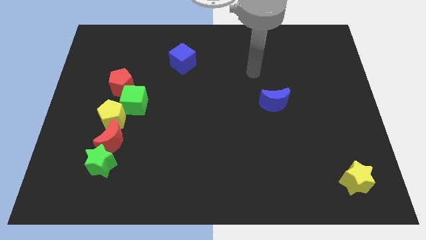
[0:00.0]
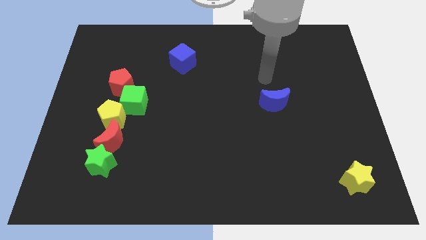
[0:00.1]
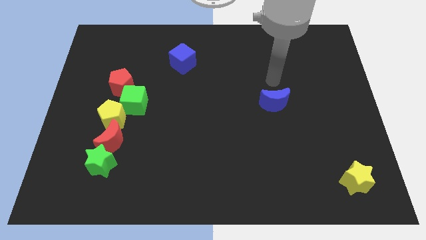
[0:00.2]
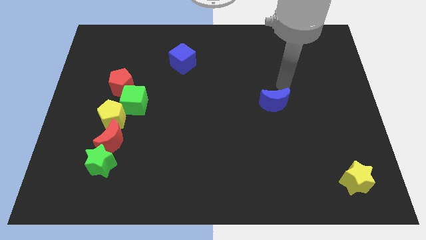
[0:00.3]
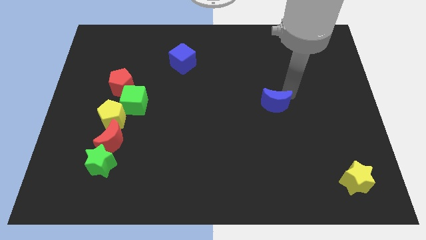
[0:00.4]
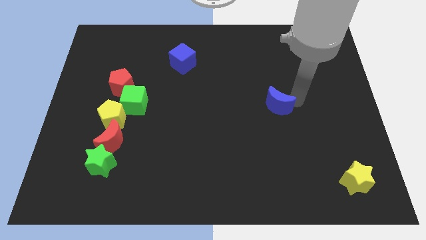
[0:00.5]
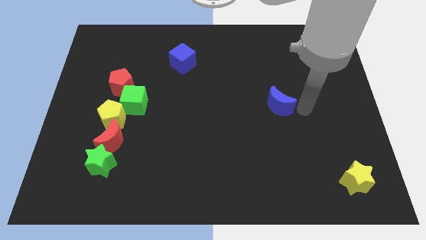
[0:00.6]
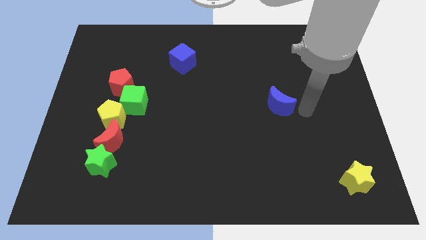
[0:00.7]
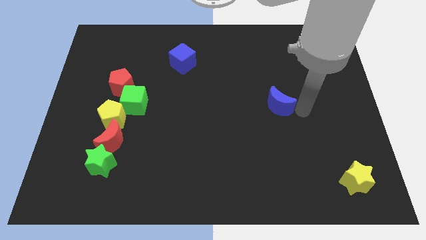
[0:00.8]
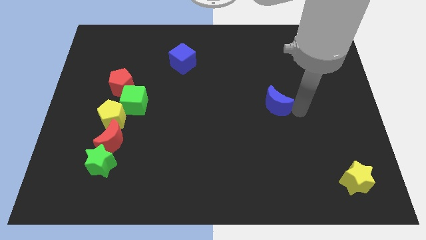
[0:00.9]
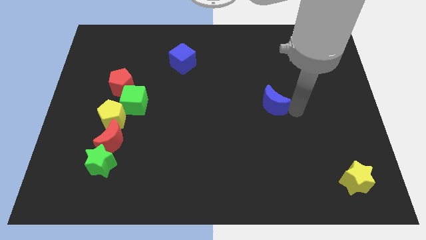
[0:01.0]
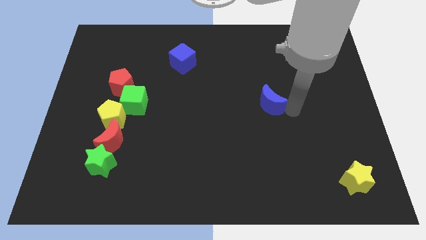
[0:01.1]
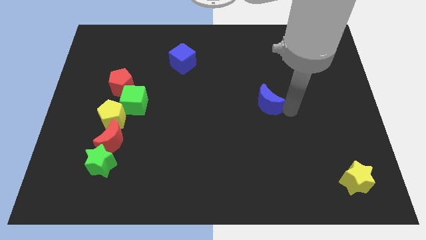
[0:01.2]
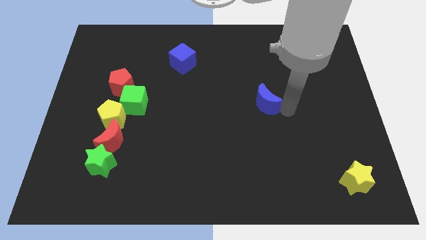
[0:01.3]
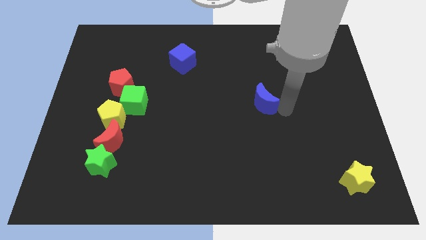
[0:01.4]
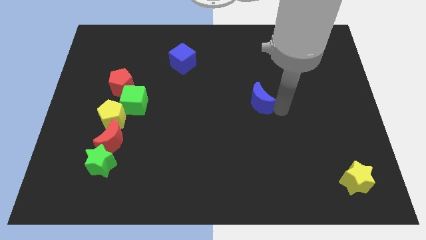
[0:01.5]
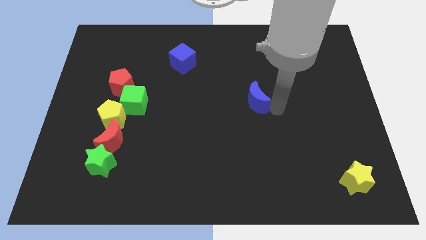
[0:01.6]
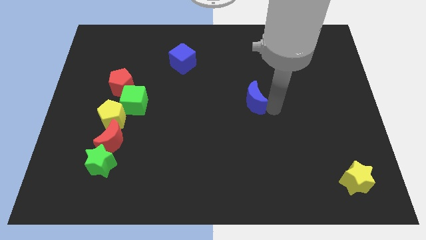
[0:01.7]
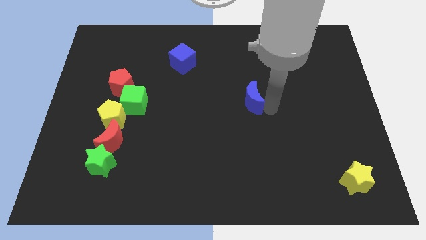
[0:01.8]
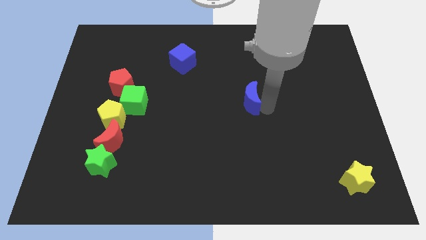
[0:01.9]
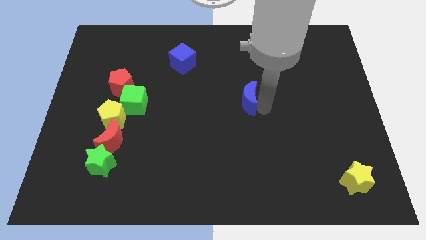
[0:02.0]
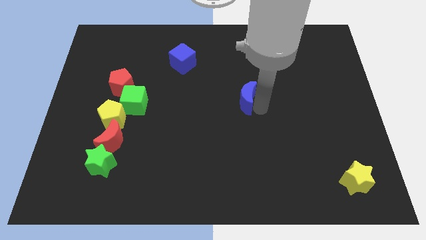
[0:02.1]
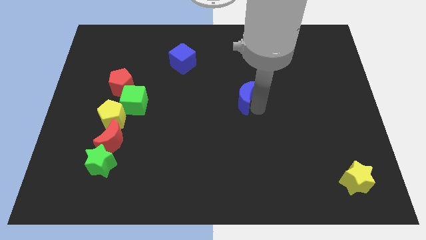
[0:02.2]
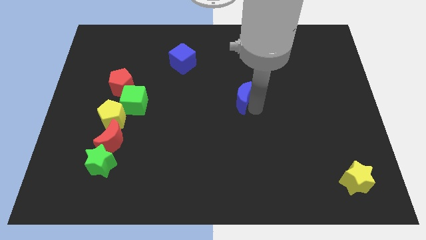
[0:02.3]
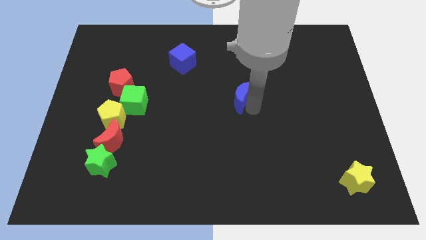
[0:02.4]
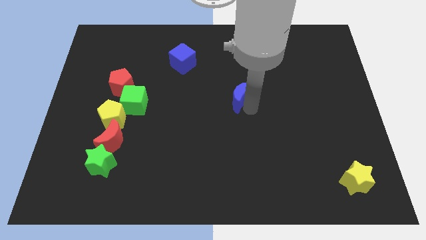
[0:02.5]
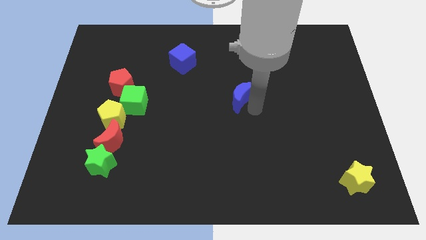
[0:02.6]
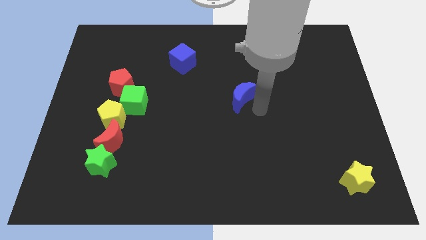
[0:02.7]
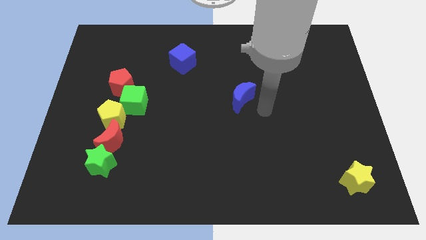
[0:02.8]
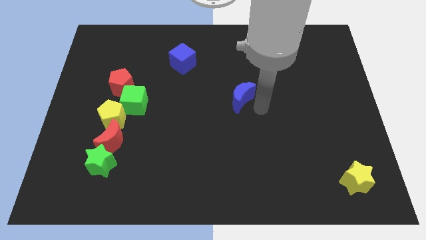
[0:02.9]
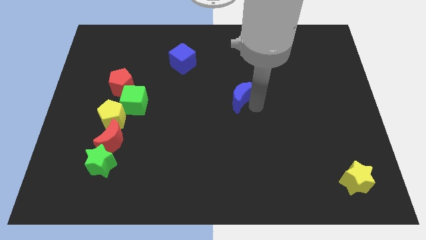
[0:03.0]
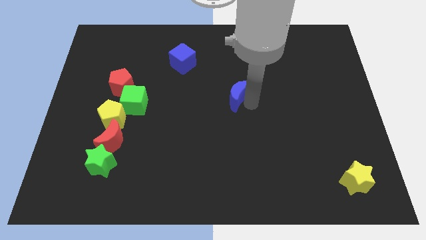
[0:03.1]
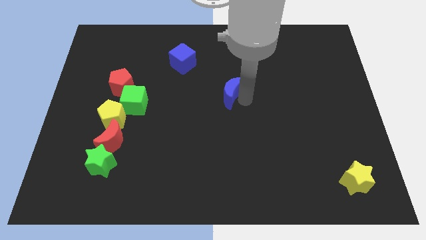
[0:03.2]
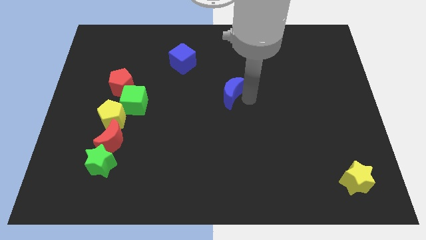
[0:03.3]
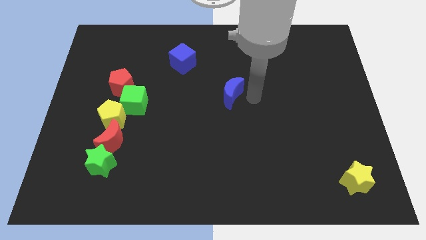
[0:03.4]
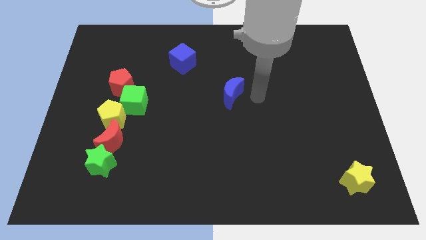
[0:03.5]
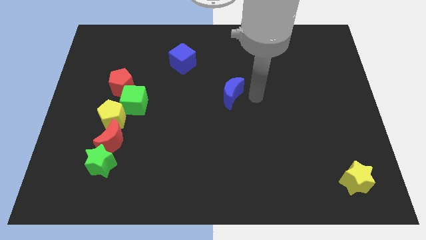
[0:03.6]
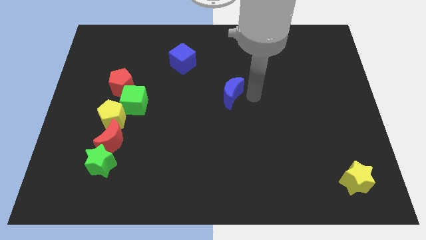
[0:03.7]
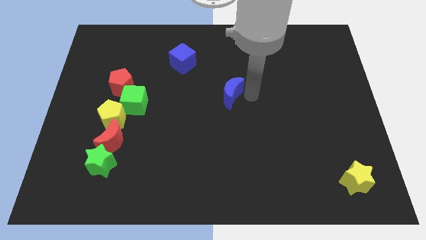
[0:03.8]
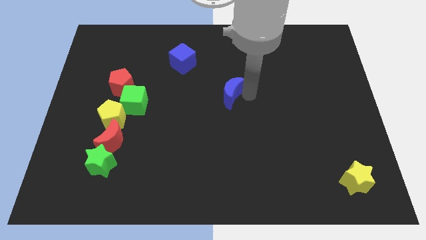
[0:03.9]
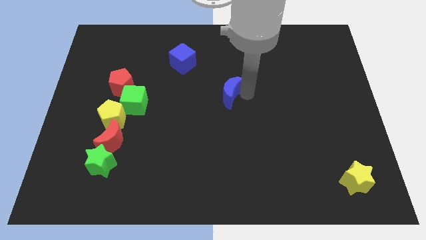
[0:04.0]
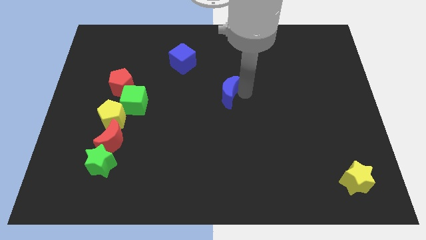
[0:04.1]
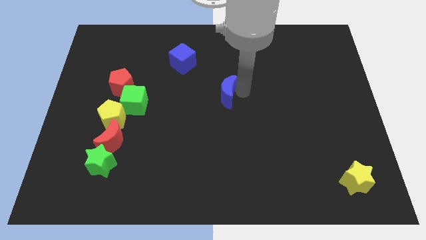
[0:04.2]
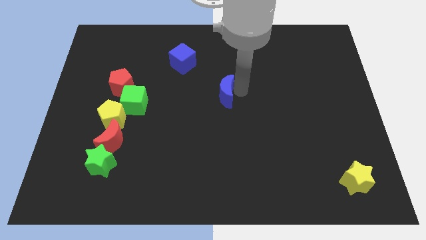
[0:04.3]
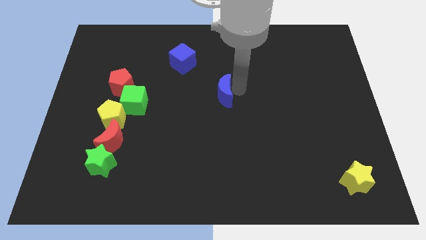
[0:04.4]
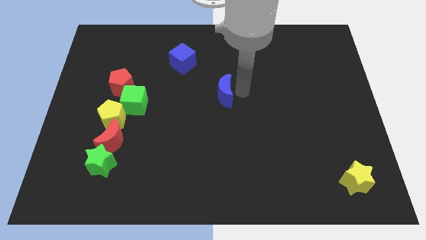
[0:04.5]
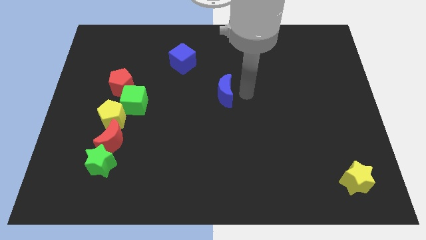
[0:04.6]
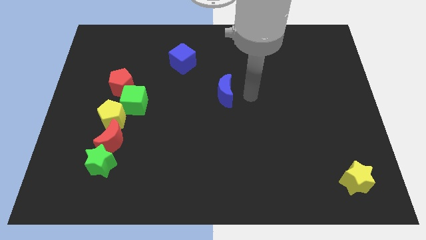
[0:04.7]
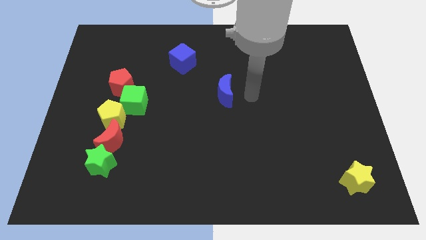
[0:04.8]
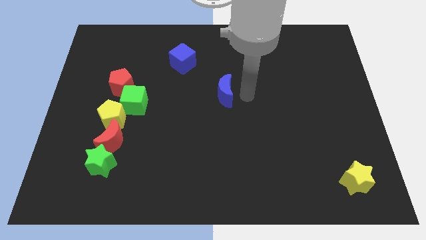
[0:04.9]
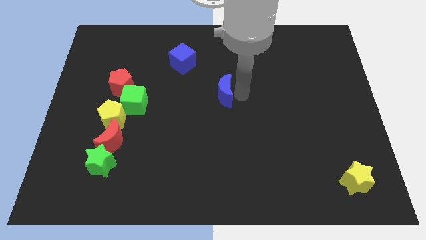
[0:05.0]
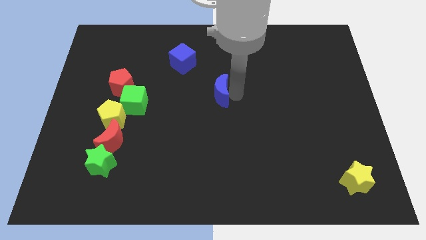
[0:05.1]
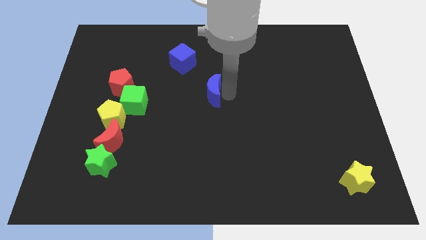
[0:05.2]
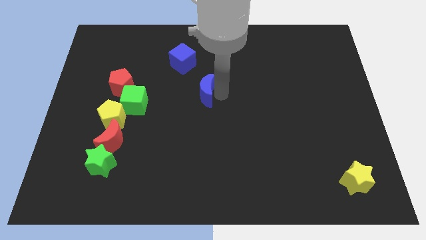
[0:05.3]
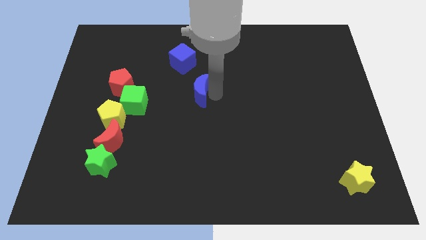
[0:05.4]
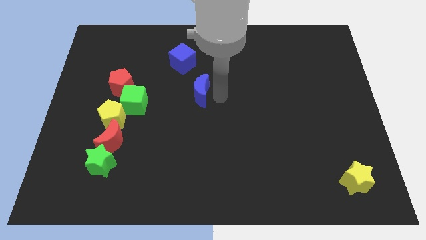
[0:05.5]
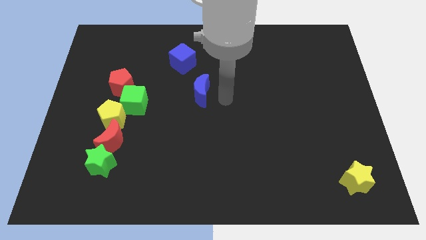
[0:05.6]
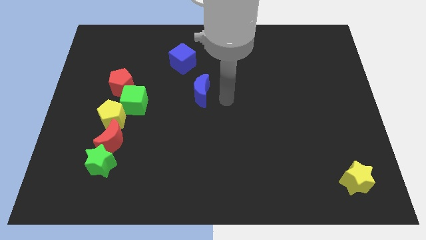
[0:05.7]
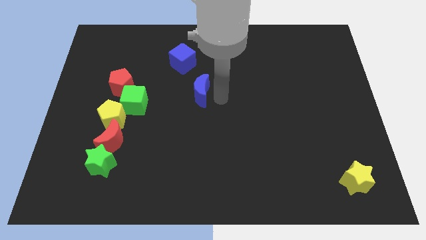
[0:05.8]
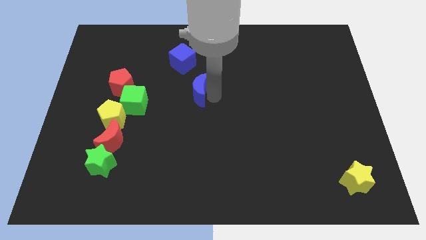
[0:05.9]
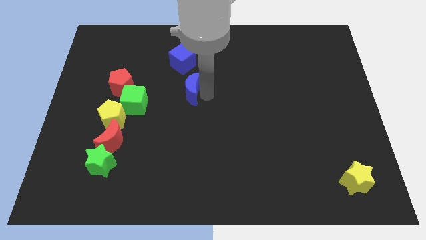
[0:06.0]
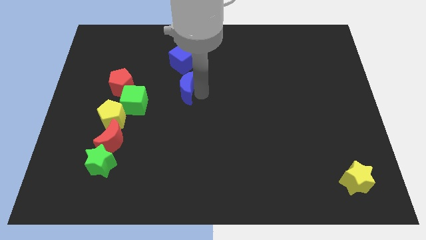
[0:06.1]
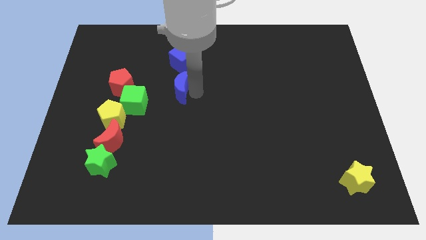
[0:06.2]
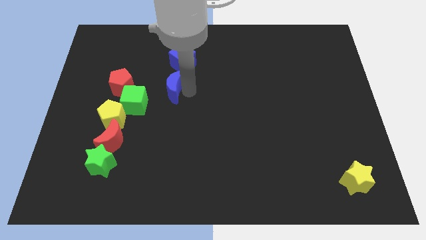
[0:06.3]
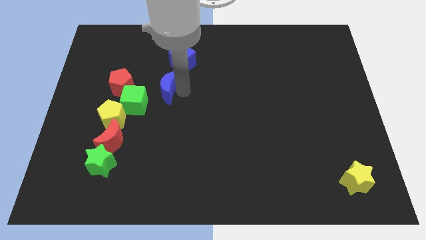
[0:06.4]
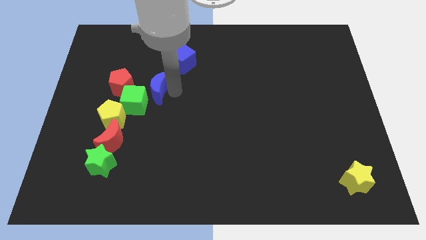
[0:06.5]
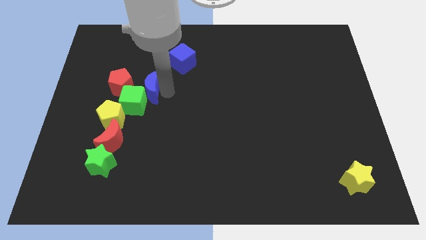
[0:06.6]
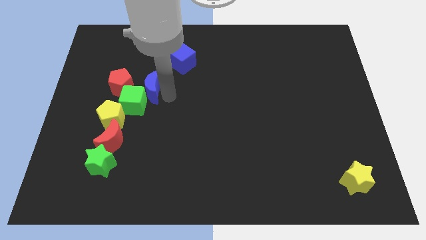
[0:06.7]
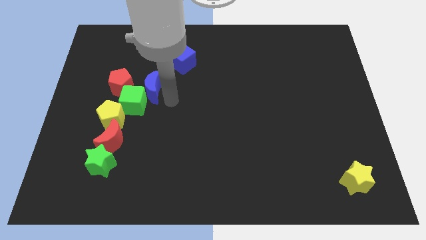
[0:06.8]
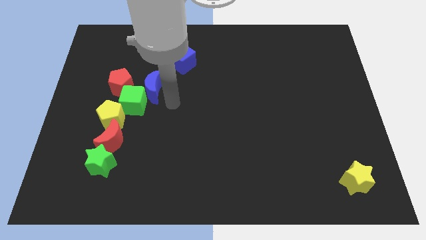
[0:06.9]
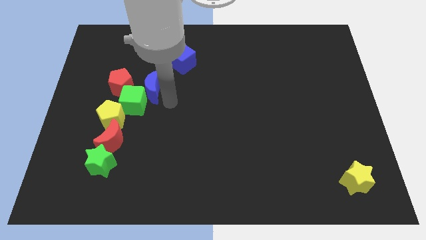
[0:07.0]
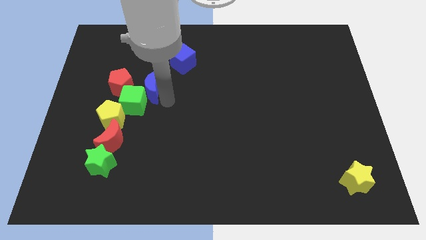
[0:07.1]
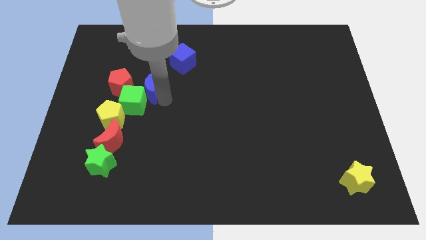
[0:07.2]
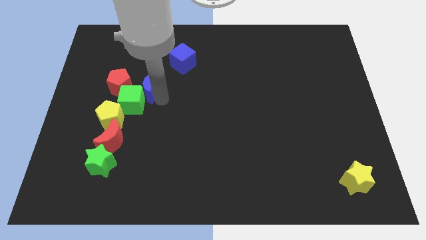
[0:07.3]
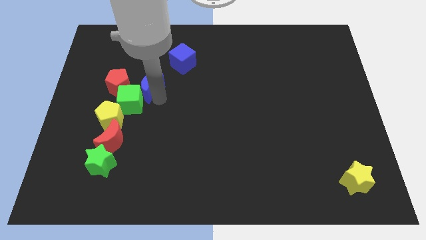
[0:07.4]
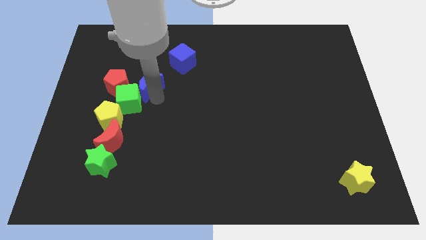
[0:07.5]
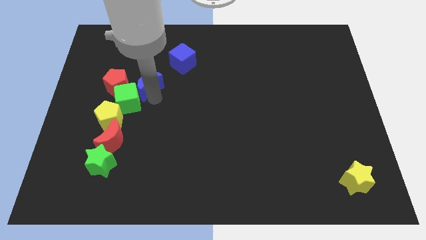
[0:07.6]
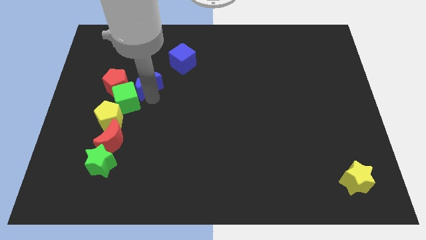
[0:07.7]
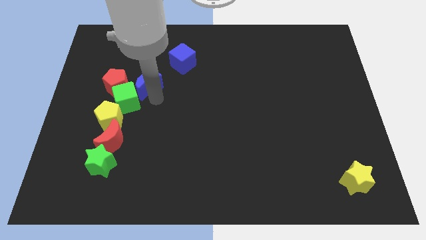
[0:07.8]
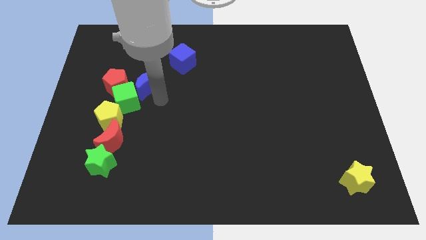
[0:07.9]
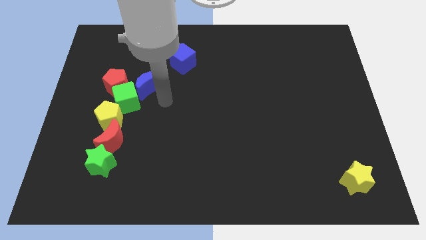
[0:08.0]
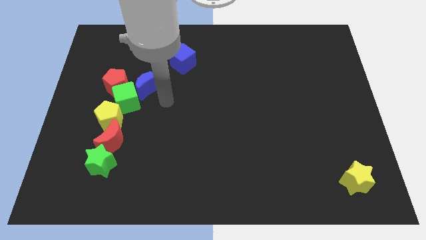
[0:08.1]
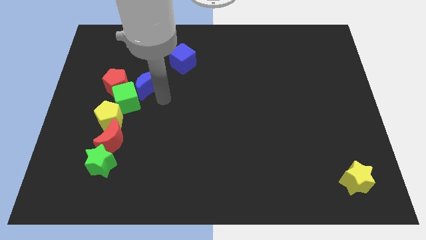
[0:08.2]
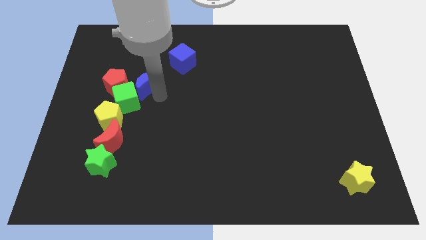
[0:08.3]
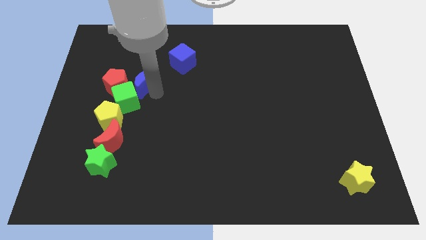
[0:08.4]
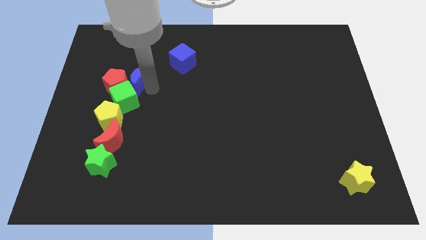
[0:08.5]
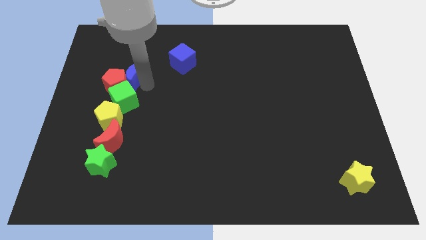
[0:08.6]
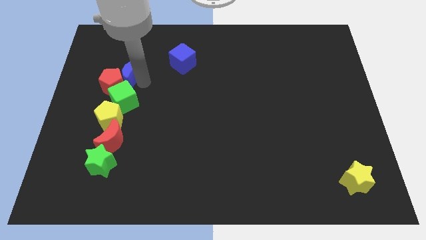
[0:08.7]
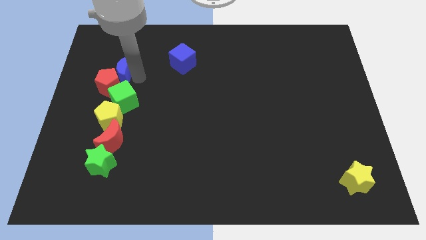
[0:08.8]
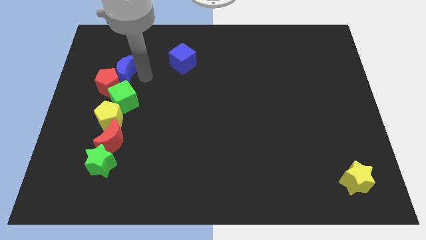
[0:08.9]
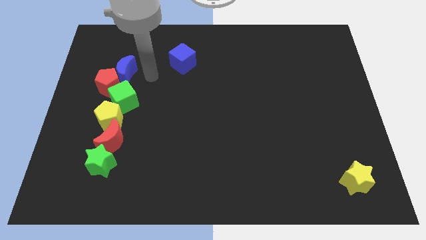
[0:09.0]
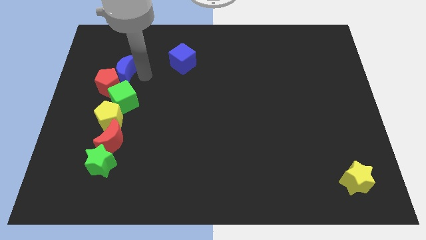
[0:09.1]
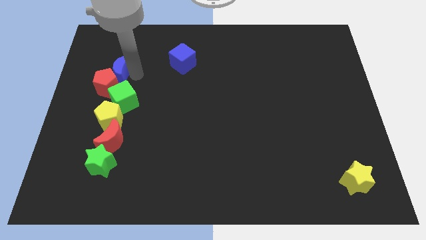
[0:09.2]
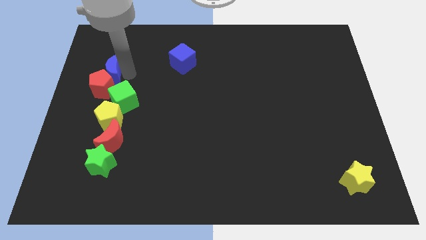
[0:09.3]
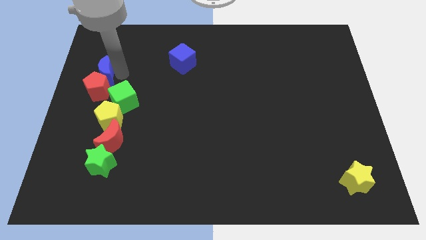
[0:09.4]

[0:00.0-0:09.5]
push the blue moon to the top left side of the red pentagon
